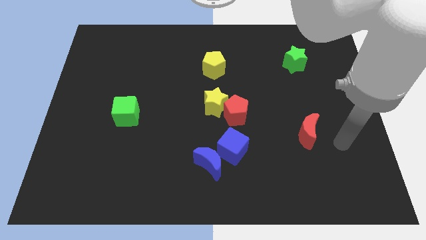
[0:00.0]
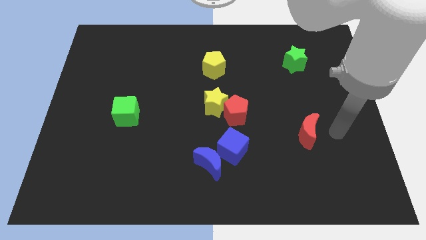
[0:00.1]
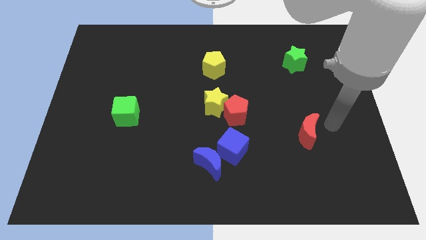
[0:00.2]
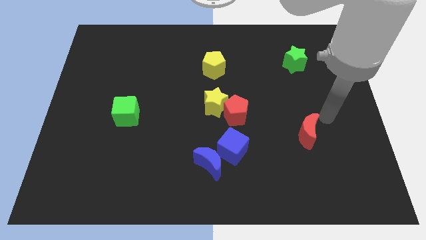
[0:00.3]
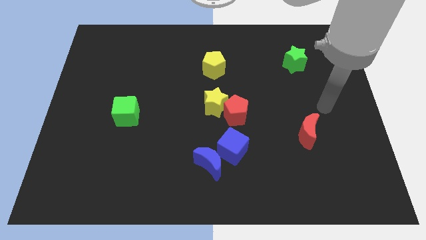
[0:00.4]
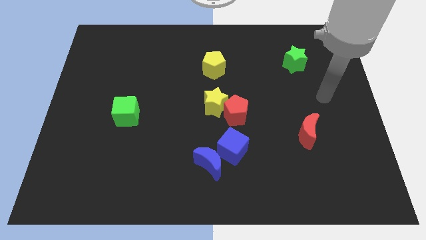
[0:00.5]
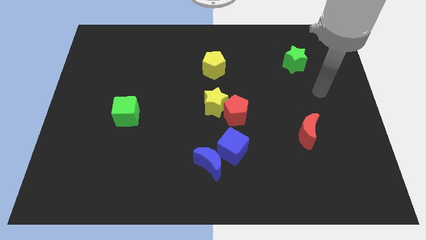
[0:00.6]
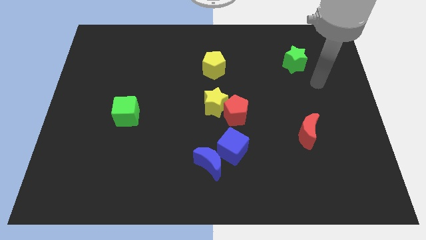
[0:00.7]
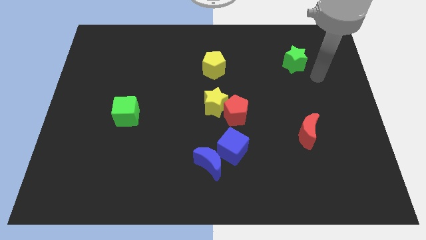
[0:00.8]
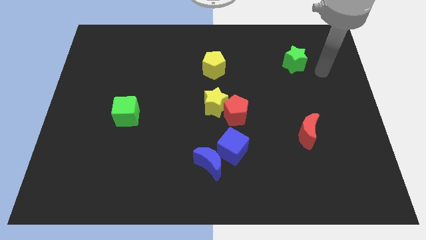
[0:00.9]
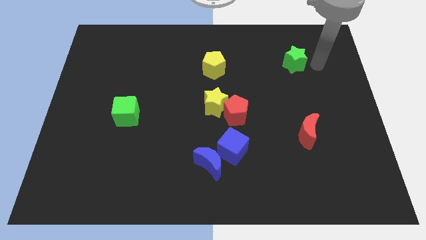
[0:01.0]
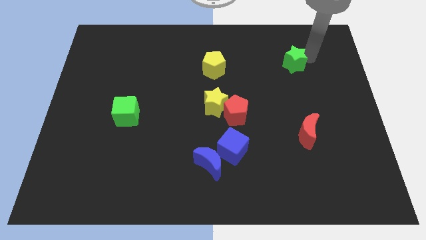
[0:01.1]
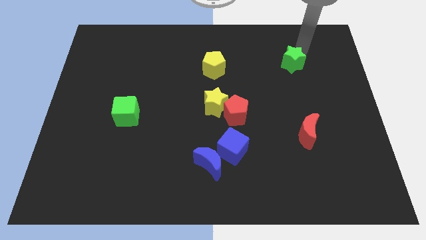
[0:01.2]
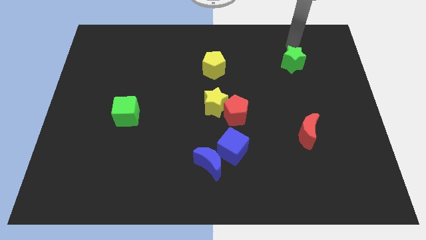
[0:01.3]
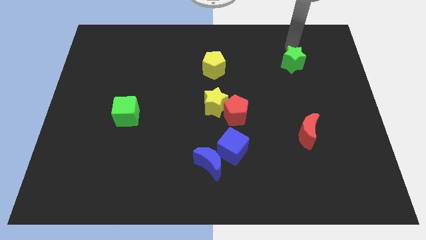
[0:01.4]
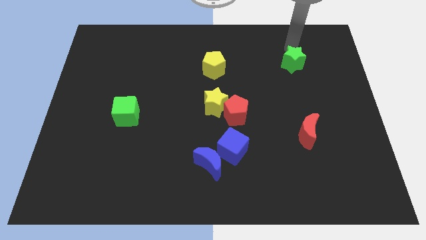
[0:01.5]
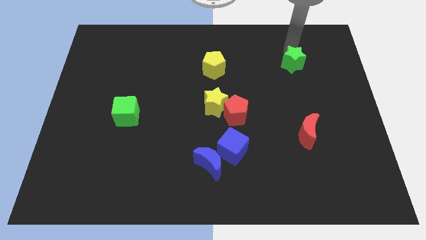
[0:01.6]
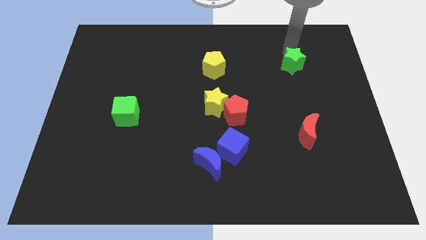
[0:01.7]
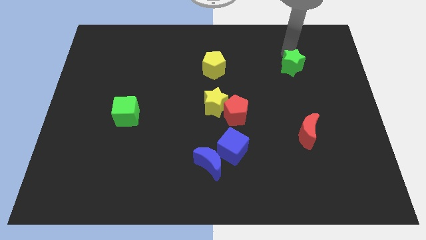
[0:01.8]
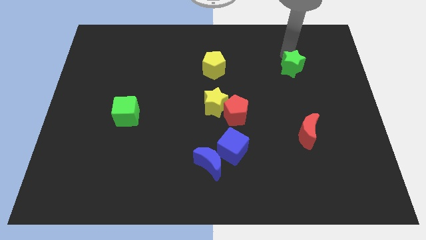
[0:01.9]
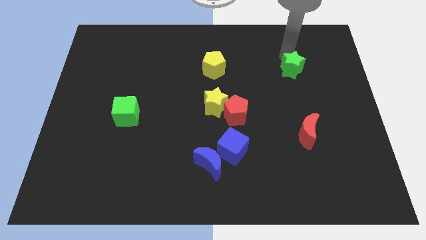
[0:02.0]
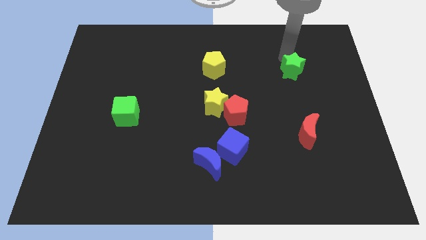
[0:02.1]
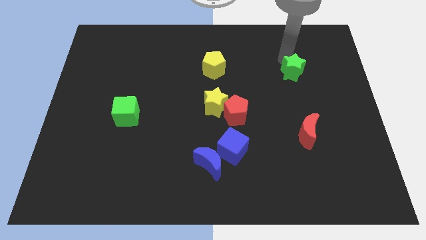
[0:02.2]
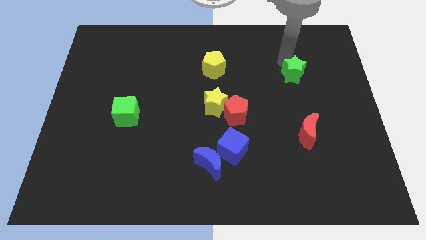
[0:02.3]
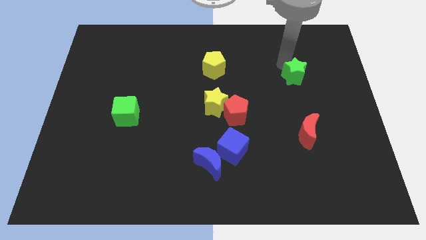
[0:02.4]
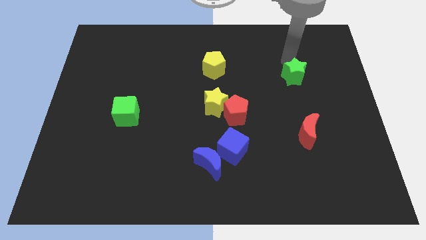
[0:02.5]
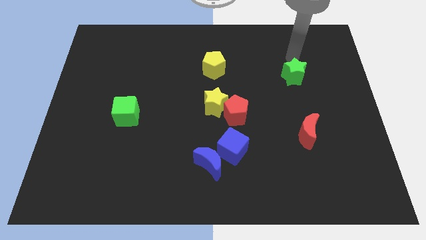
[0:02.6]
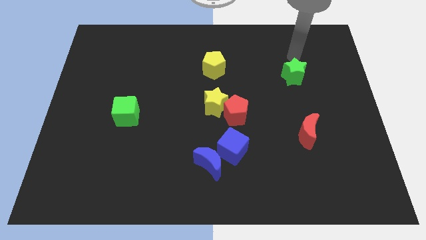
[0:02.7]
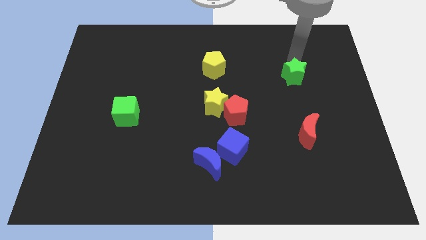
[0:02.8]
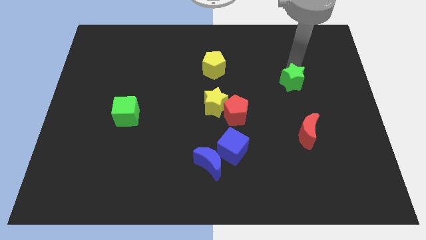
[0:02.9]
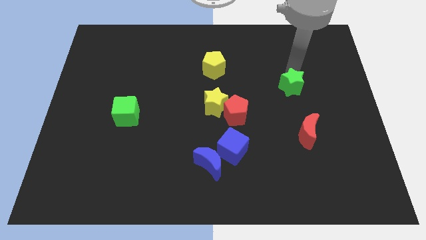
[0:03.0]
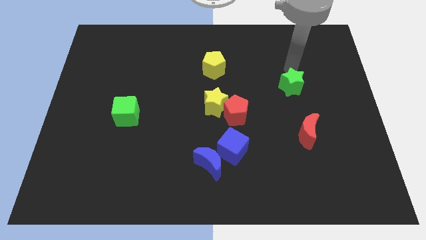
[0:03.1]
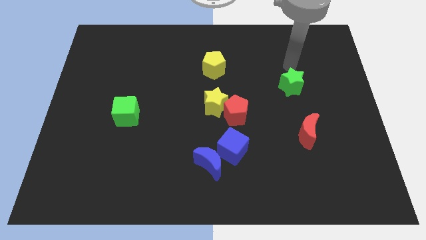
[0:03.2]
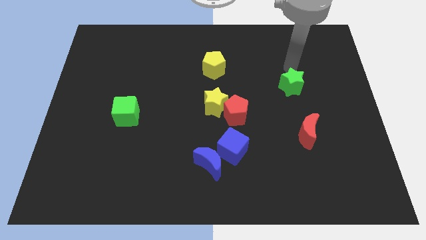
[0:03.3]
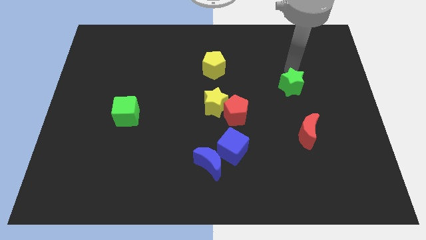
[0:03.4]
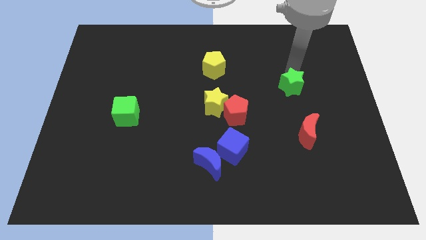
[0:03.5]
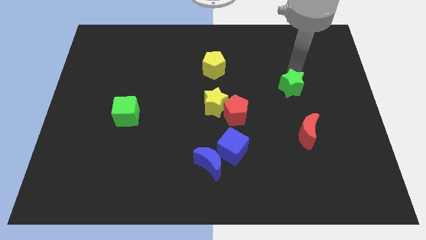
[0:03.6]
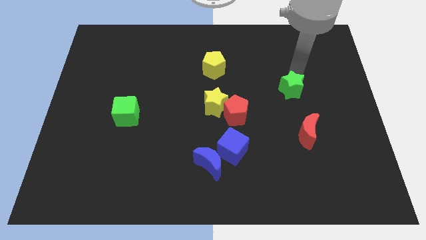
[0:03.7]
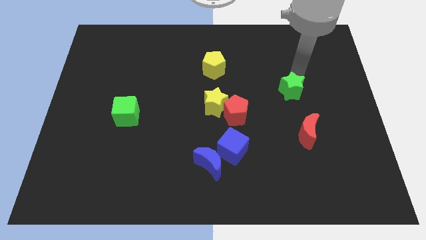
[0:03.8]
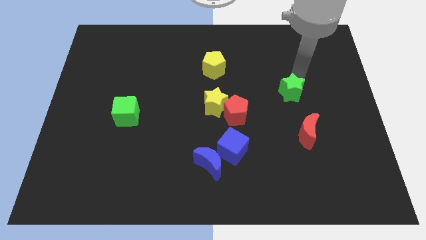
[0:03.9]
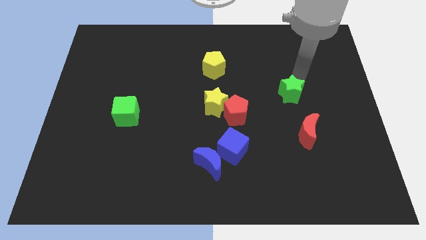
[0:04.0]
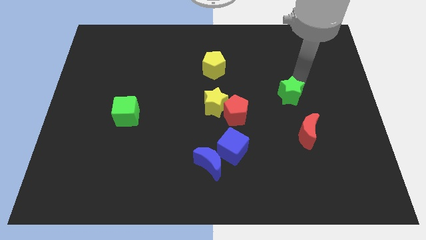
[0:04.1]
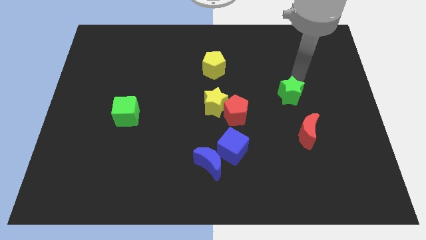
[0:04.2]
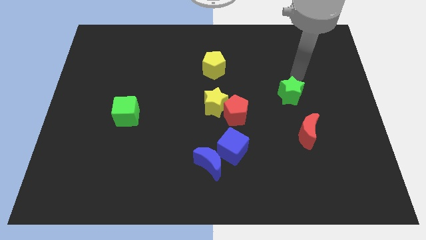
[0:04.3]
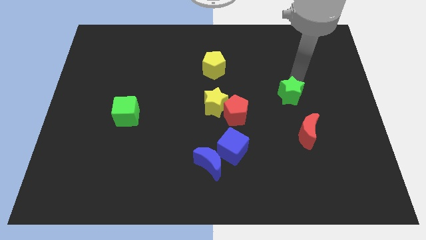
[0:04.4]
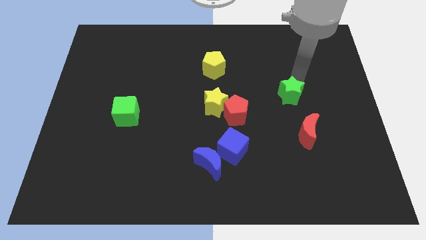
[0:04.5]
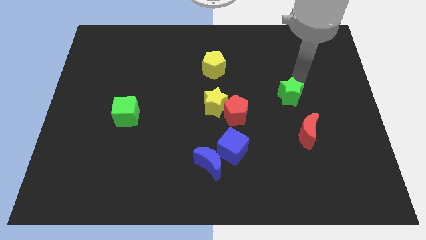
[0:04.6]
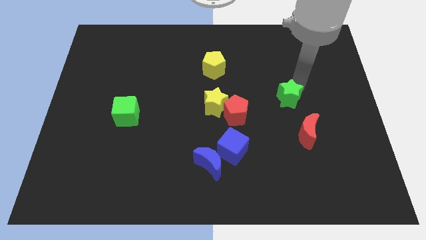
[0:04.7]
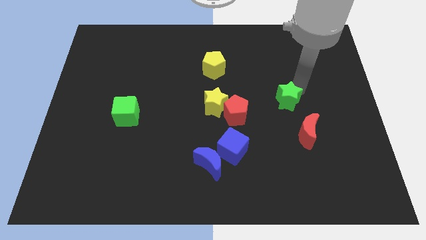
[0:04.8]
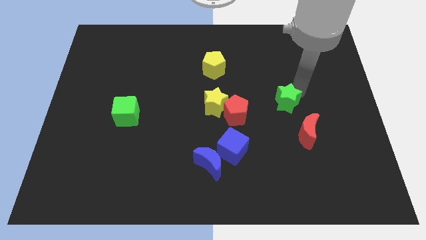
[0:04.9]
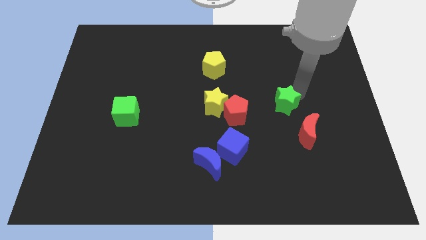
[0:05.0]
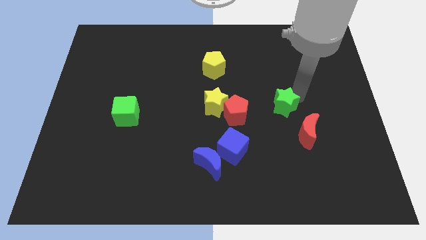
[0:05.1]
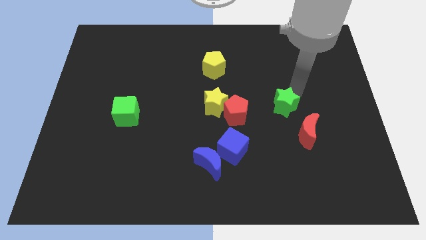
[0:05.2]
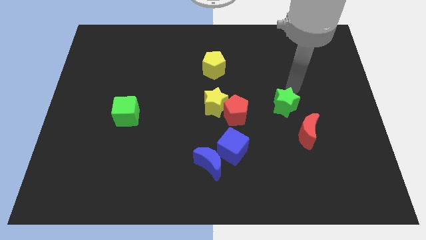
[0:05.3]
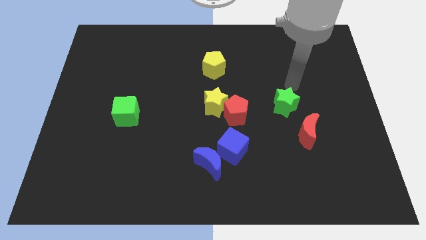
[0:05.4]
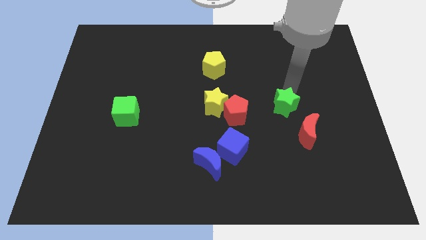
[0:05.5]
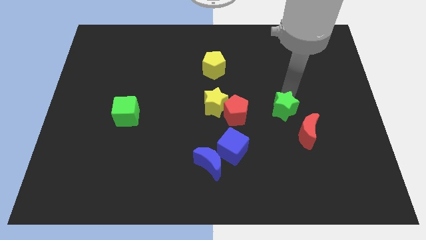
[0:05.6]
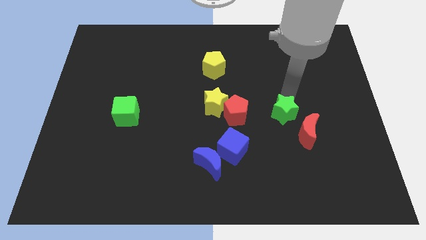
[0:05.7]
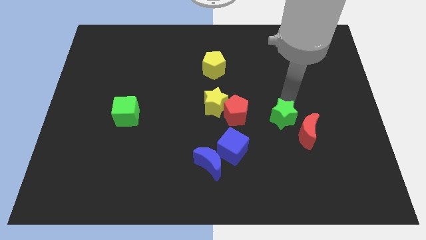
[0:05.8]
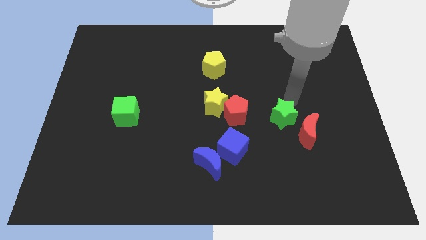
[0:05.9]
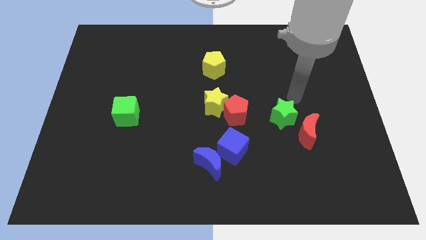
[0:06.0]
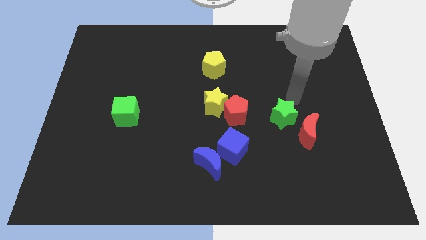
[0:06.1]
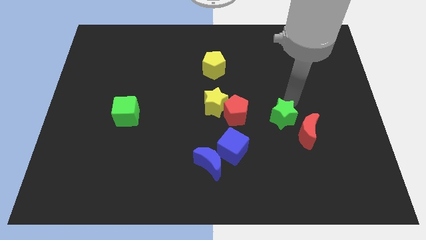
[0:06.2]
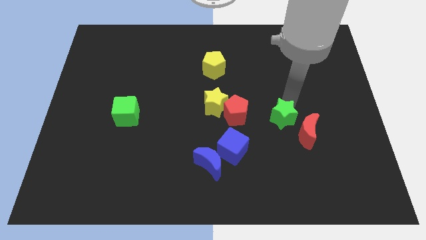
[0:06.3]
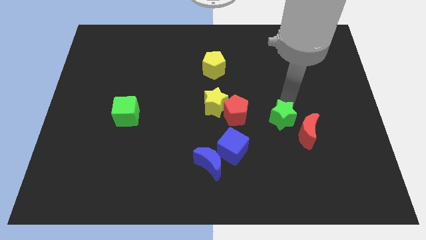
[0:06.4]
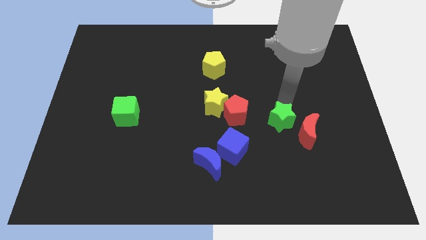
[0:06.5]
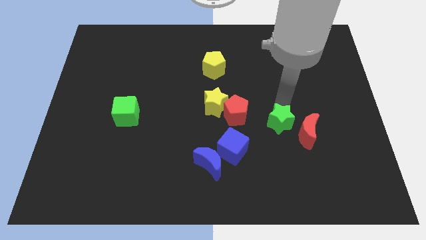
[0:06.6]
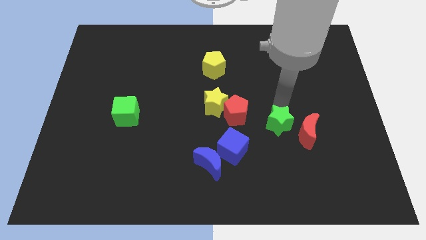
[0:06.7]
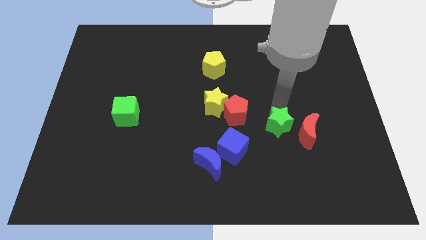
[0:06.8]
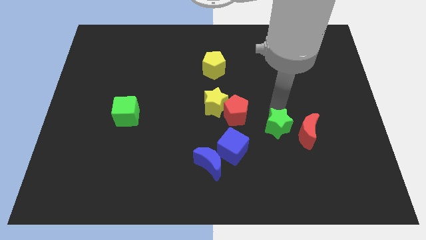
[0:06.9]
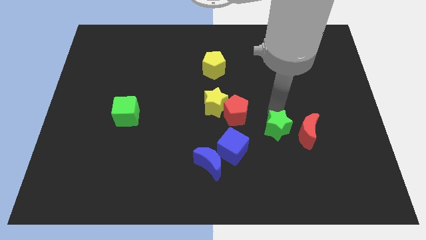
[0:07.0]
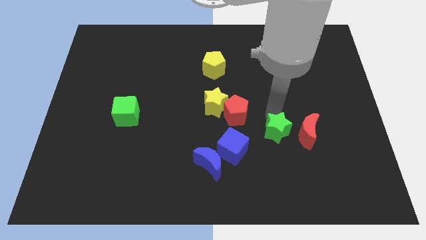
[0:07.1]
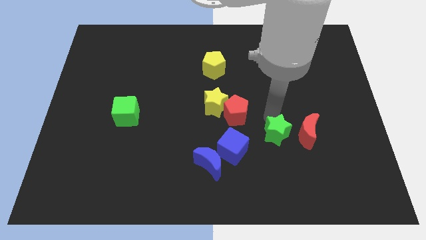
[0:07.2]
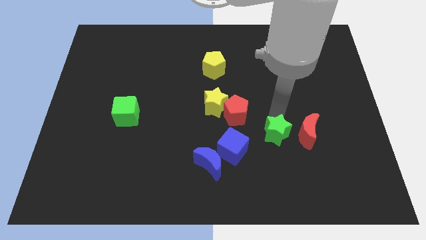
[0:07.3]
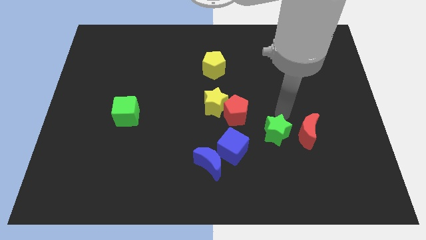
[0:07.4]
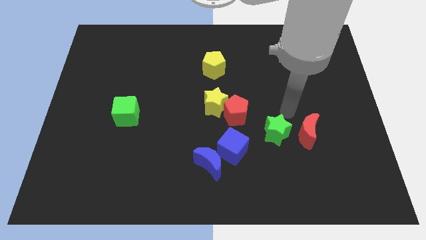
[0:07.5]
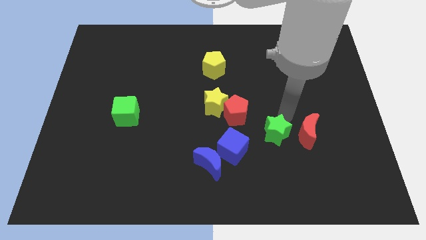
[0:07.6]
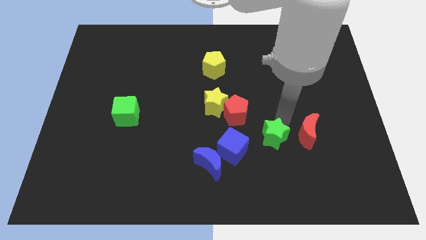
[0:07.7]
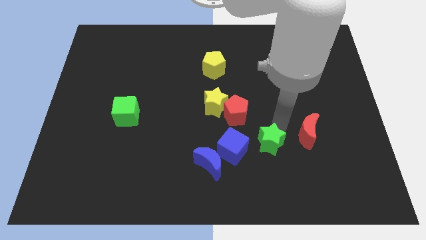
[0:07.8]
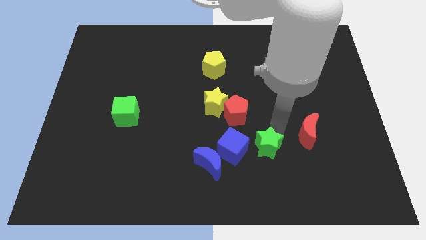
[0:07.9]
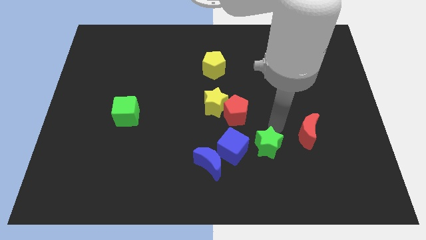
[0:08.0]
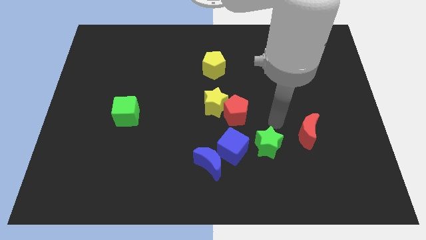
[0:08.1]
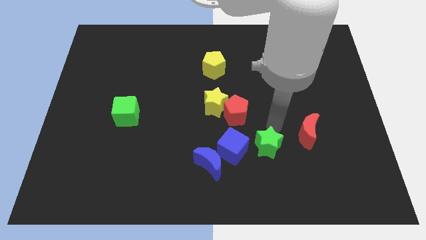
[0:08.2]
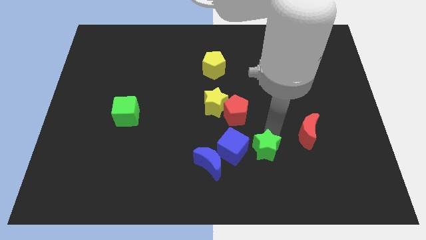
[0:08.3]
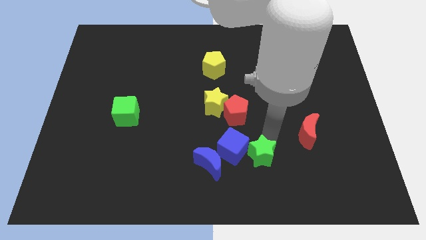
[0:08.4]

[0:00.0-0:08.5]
put the green star to the bottom right of the blue cube
